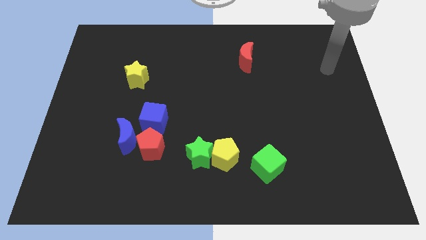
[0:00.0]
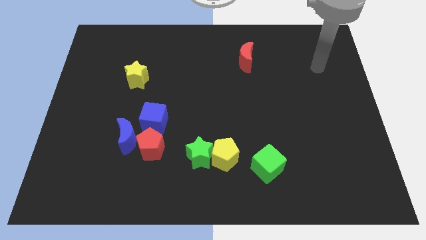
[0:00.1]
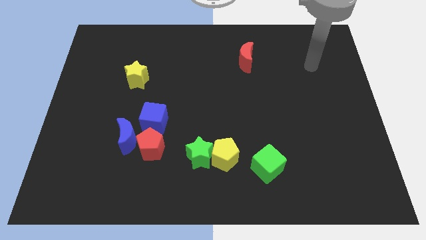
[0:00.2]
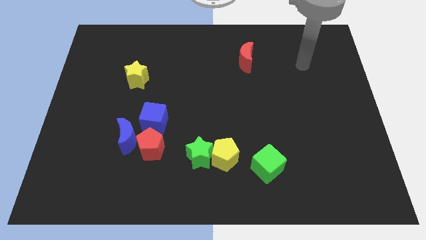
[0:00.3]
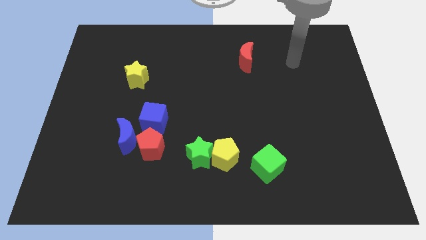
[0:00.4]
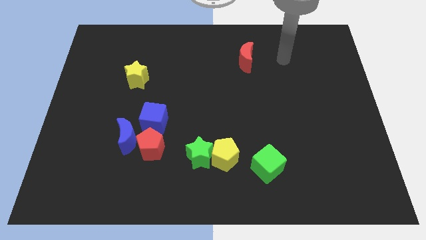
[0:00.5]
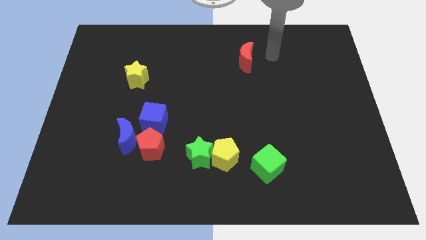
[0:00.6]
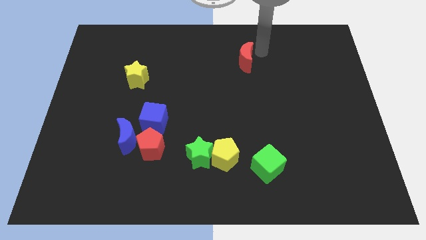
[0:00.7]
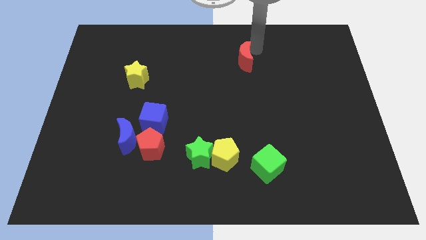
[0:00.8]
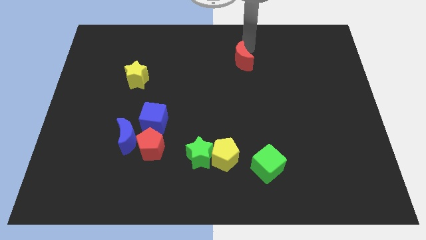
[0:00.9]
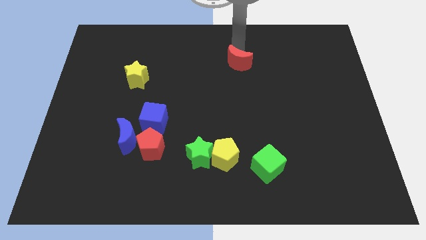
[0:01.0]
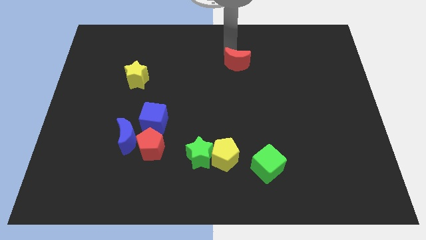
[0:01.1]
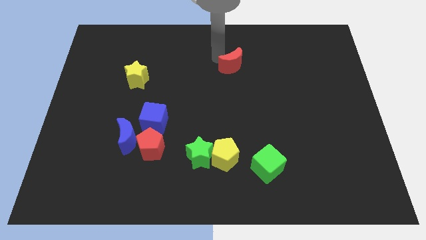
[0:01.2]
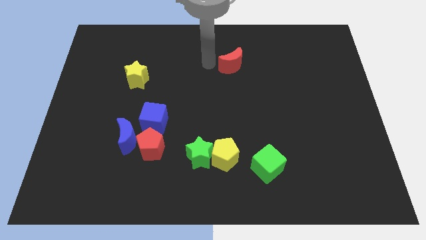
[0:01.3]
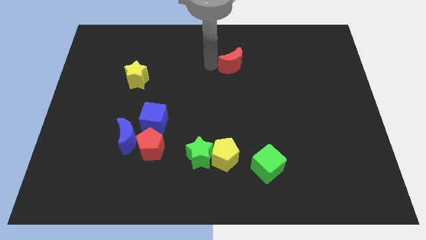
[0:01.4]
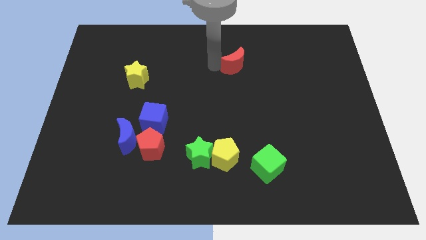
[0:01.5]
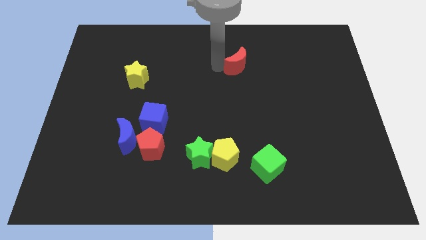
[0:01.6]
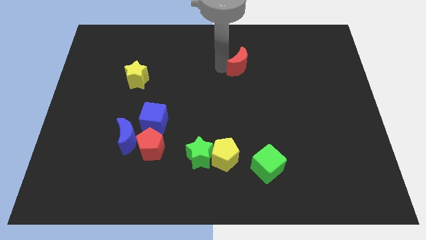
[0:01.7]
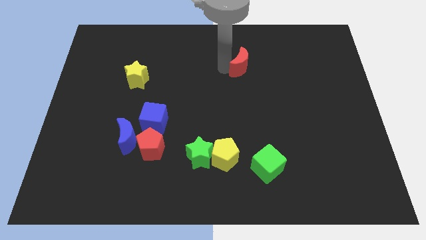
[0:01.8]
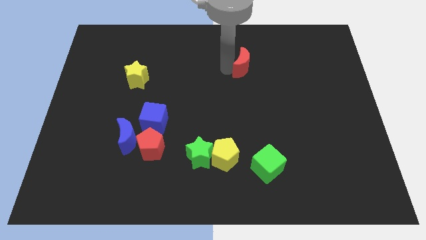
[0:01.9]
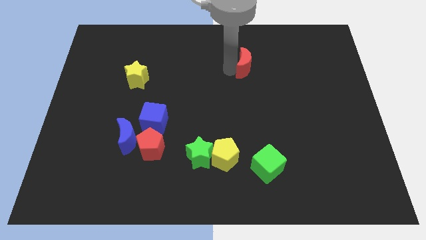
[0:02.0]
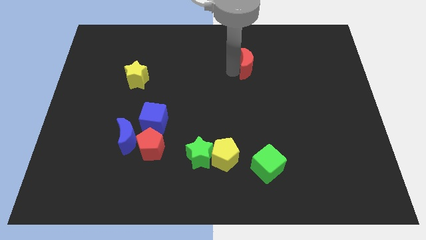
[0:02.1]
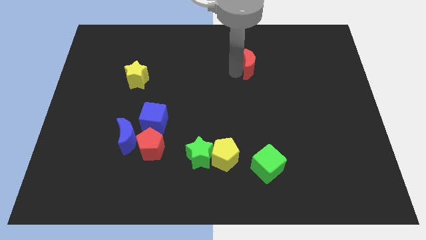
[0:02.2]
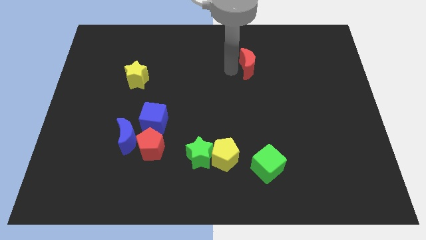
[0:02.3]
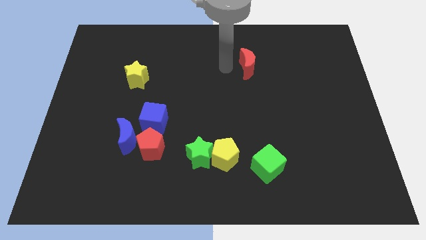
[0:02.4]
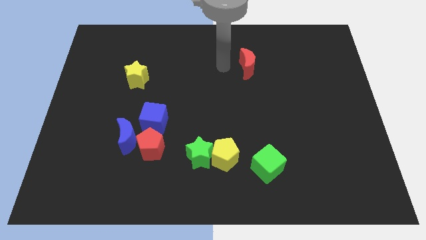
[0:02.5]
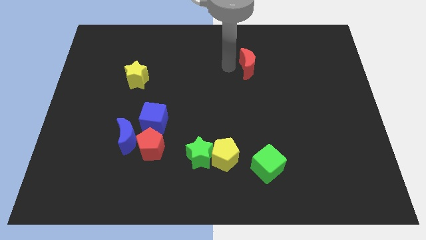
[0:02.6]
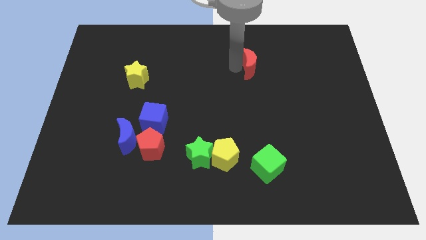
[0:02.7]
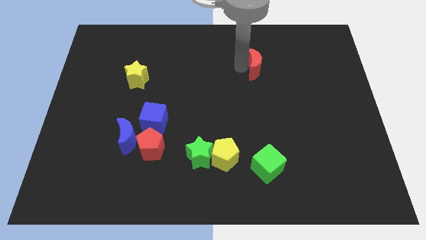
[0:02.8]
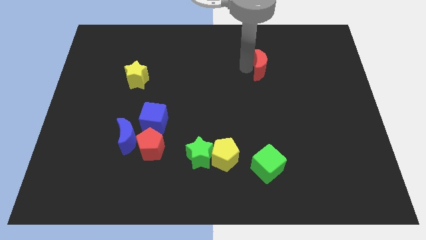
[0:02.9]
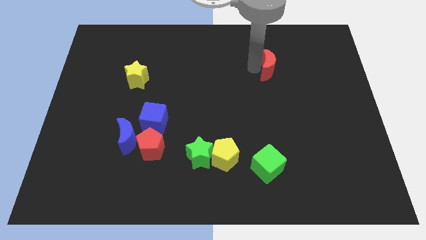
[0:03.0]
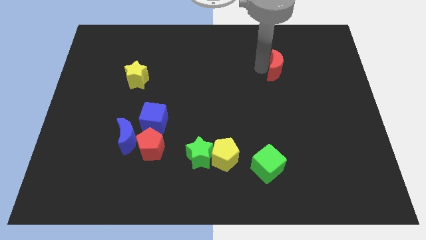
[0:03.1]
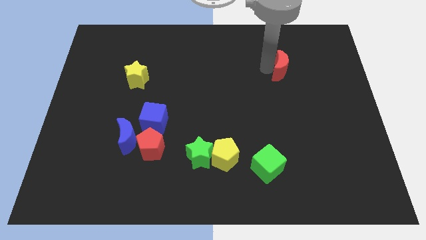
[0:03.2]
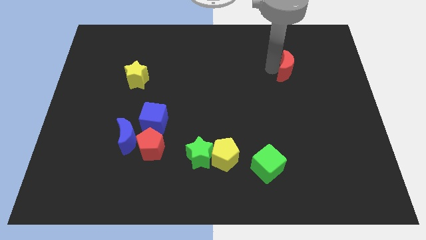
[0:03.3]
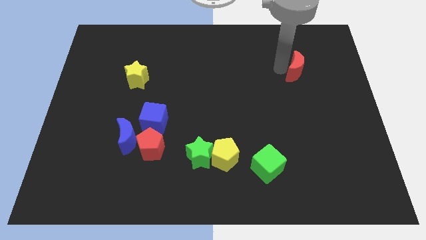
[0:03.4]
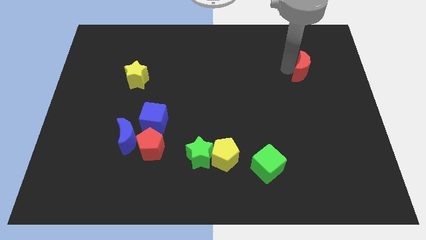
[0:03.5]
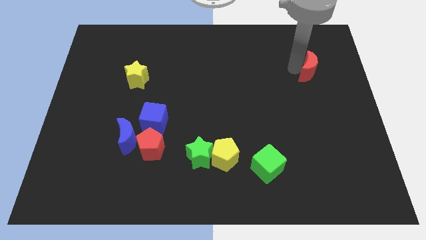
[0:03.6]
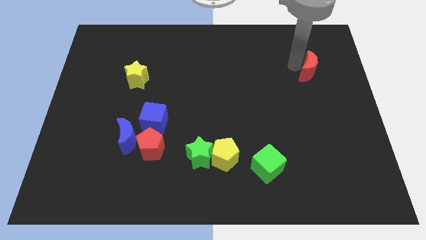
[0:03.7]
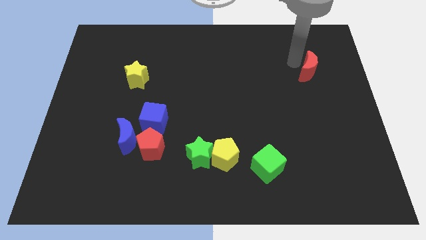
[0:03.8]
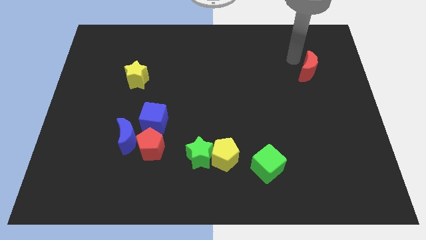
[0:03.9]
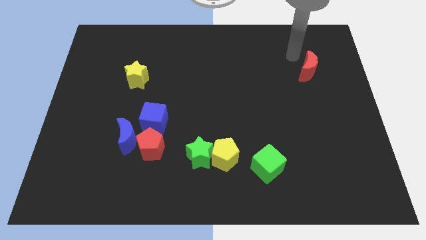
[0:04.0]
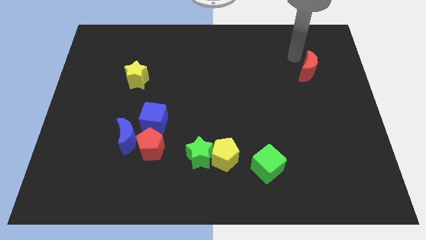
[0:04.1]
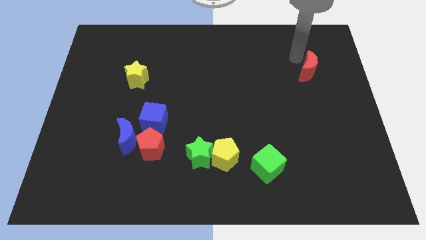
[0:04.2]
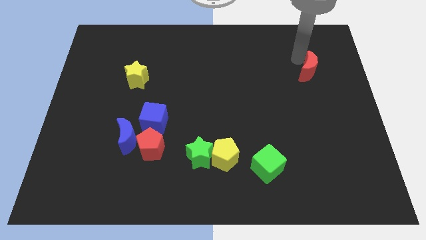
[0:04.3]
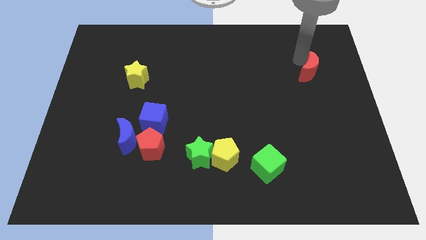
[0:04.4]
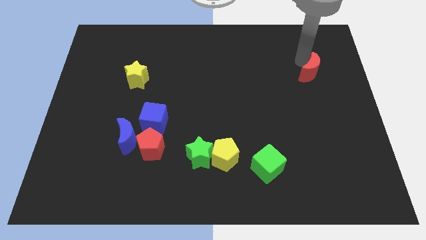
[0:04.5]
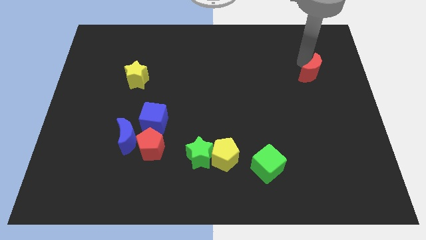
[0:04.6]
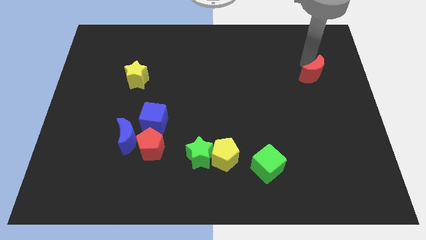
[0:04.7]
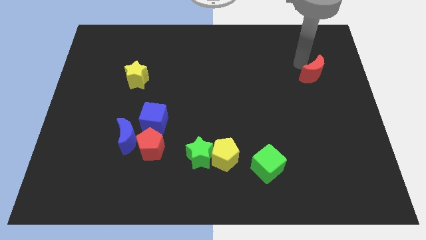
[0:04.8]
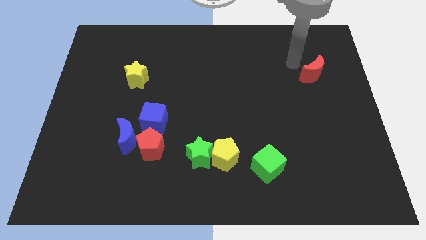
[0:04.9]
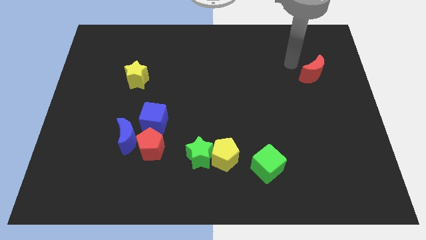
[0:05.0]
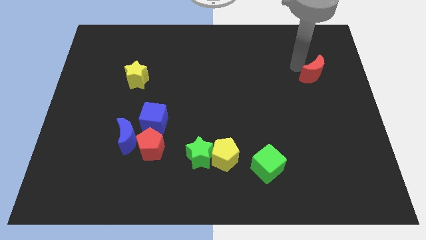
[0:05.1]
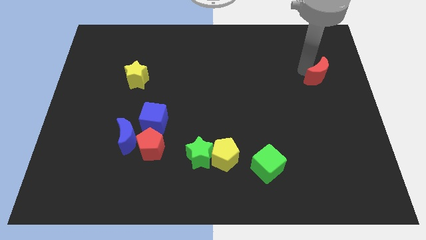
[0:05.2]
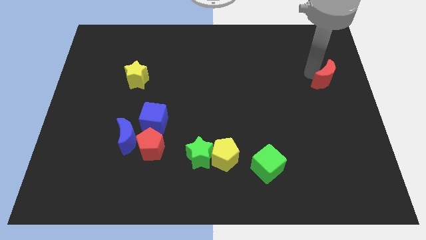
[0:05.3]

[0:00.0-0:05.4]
slide the red moon to the right side of the board

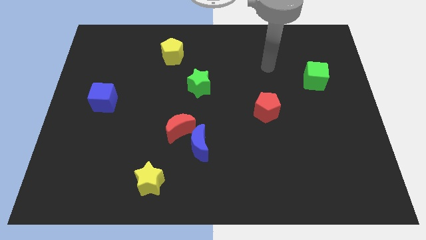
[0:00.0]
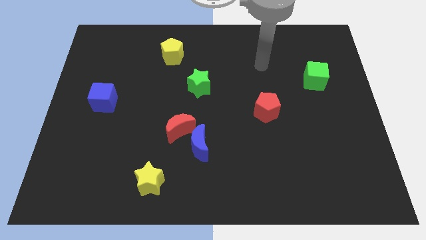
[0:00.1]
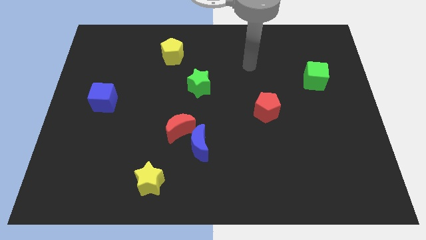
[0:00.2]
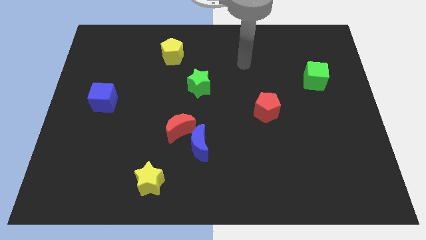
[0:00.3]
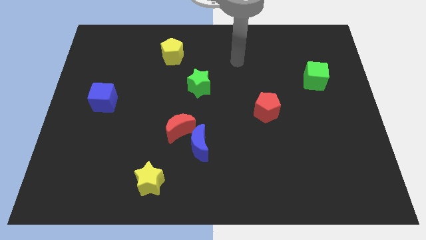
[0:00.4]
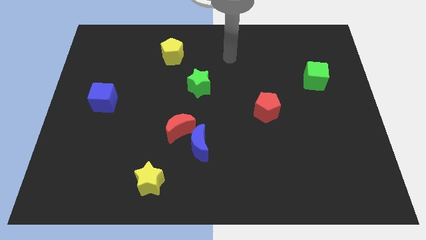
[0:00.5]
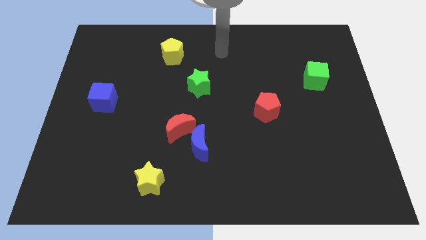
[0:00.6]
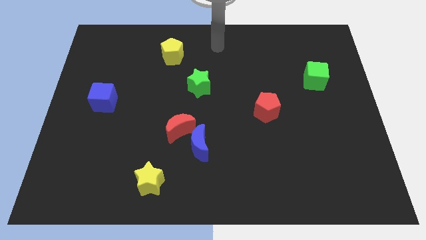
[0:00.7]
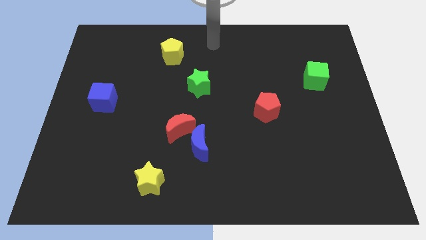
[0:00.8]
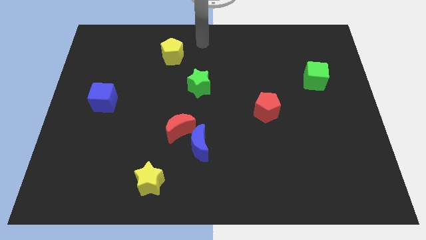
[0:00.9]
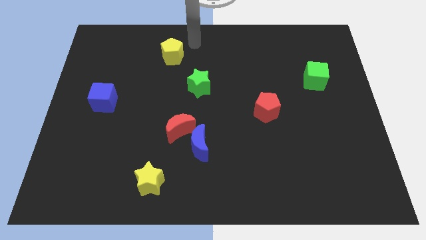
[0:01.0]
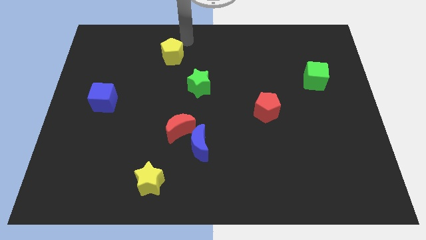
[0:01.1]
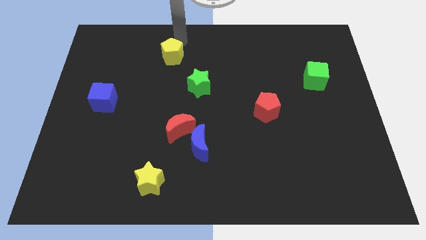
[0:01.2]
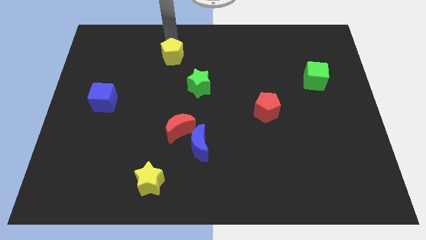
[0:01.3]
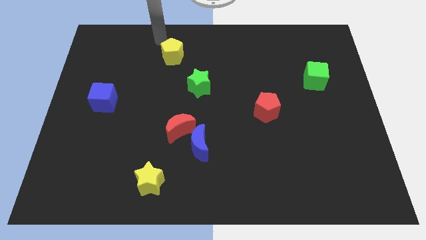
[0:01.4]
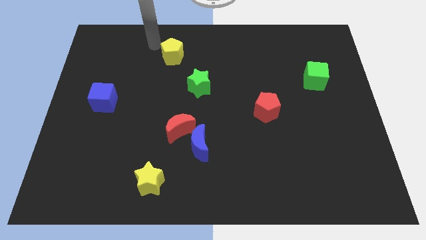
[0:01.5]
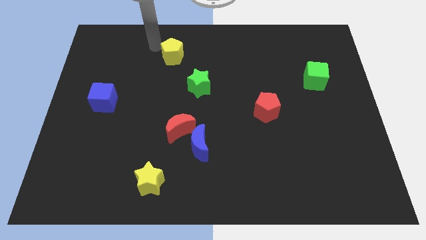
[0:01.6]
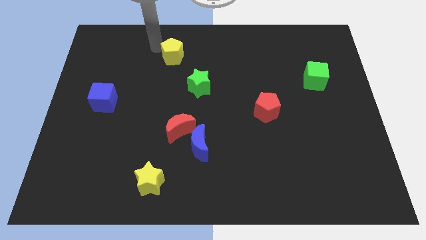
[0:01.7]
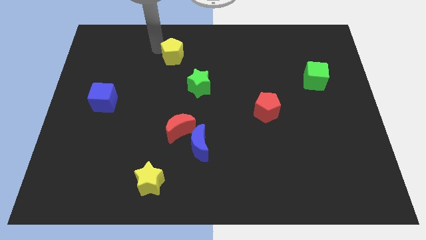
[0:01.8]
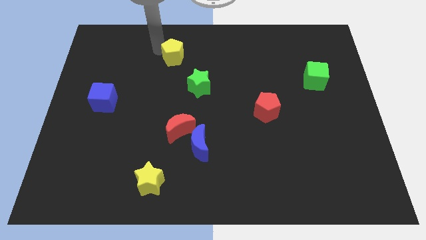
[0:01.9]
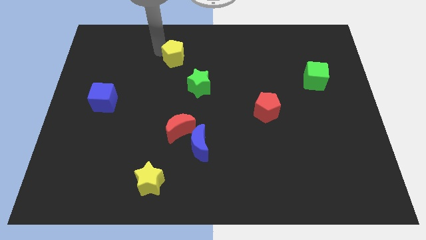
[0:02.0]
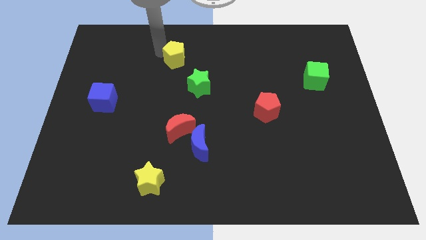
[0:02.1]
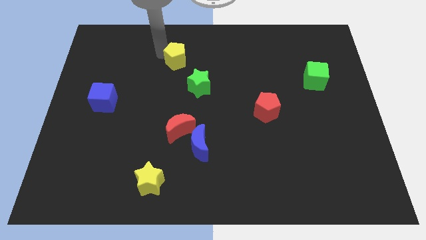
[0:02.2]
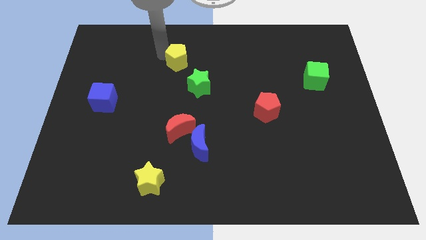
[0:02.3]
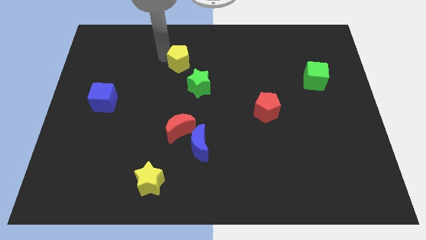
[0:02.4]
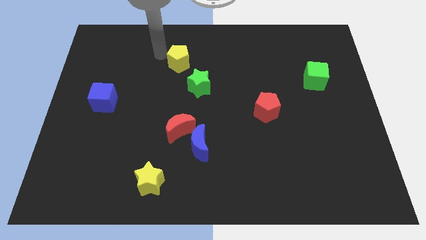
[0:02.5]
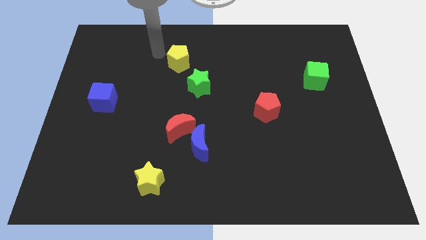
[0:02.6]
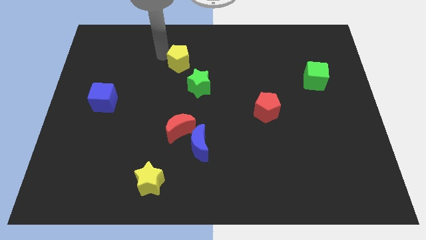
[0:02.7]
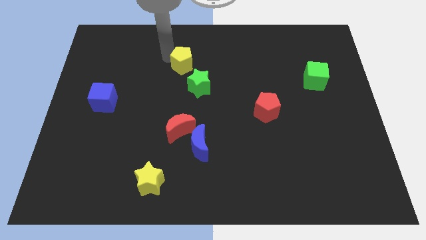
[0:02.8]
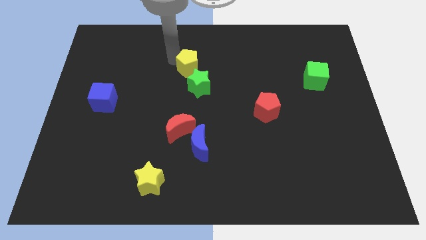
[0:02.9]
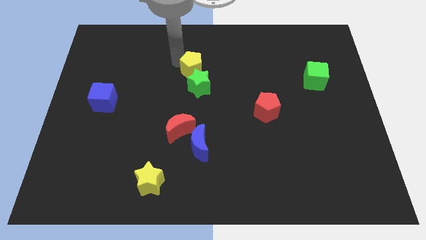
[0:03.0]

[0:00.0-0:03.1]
put the yellow pentagon to the middle of the board
